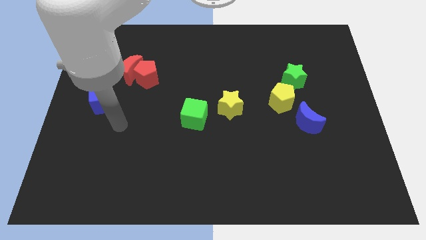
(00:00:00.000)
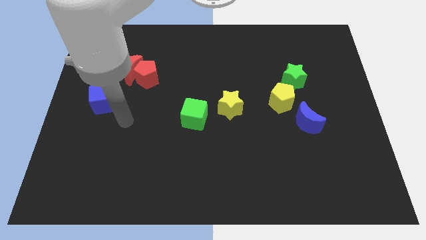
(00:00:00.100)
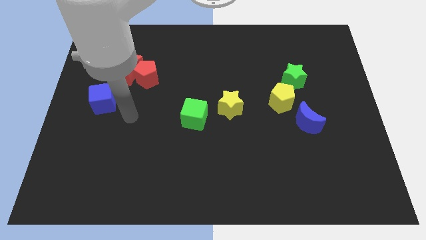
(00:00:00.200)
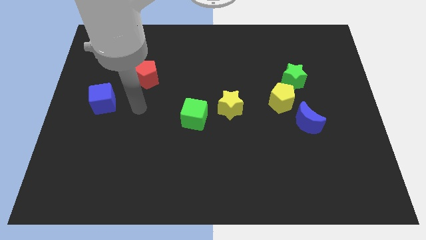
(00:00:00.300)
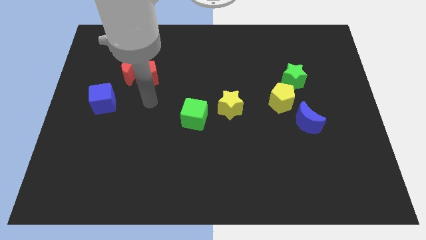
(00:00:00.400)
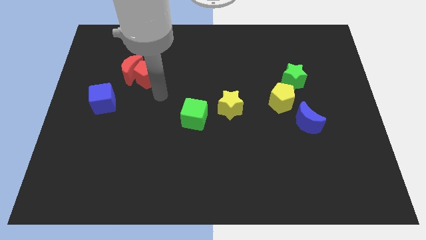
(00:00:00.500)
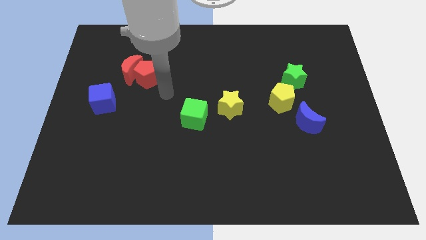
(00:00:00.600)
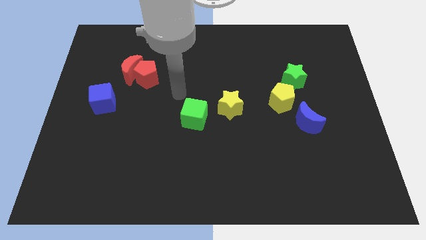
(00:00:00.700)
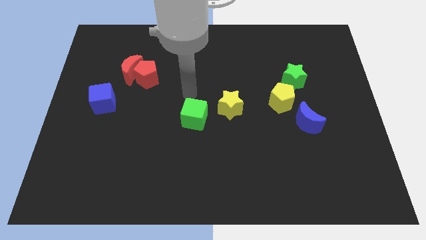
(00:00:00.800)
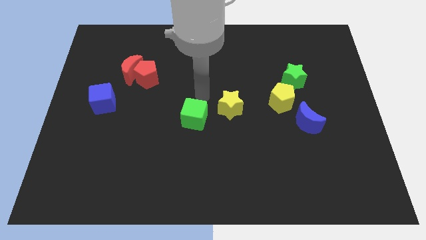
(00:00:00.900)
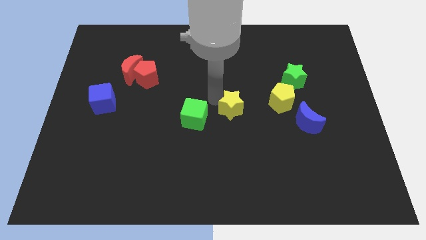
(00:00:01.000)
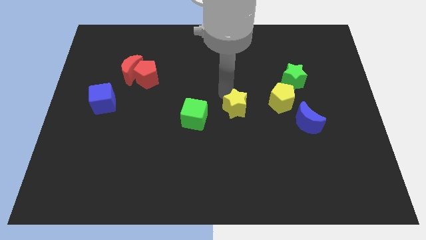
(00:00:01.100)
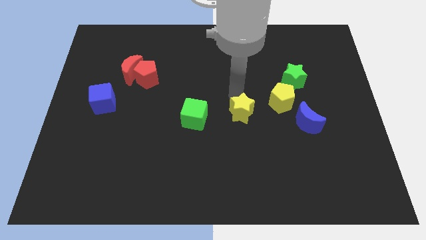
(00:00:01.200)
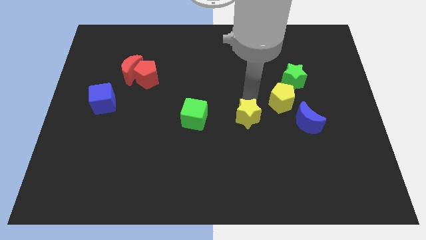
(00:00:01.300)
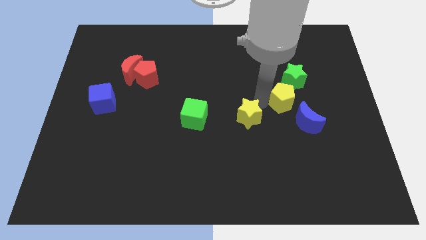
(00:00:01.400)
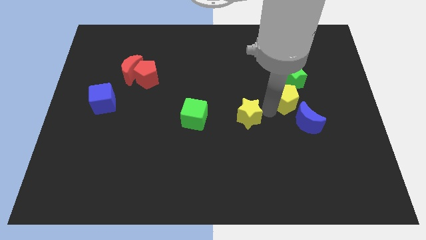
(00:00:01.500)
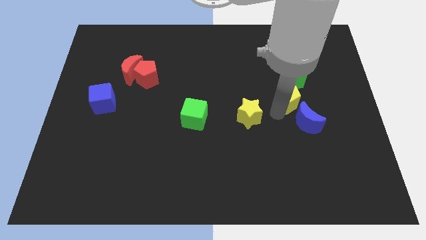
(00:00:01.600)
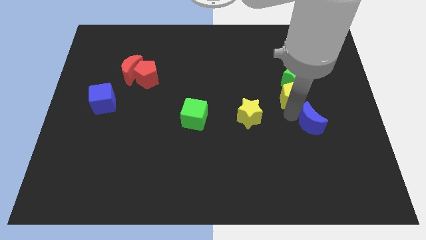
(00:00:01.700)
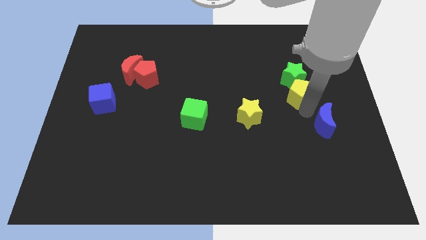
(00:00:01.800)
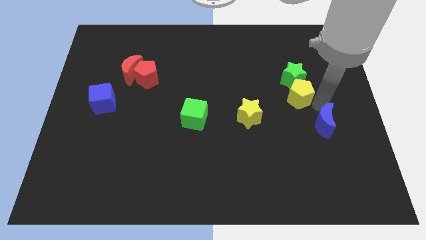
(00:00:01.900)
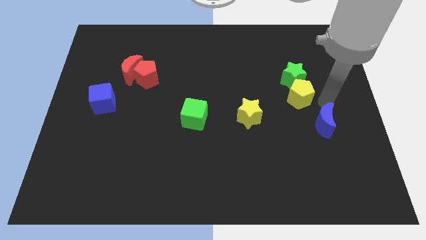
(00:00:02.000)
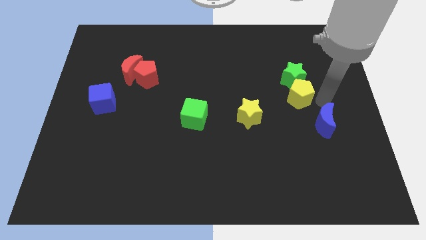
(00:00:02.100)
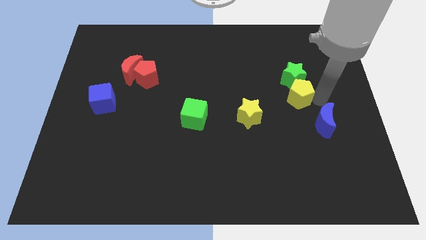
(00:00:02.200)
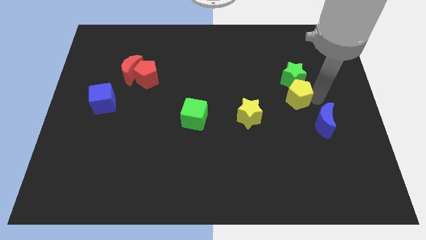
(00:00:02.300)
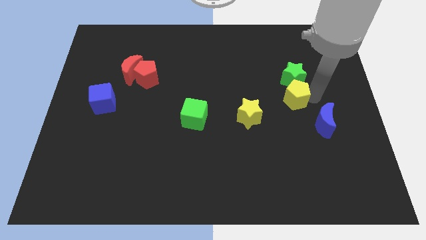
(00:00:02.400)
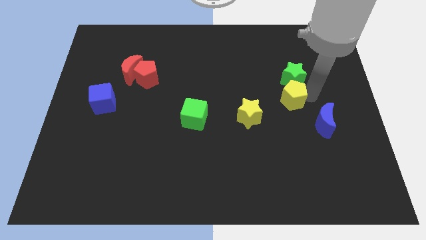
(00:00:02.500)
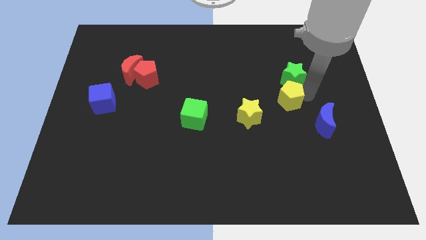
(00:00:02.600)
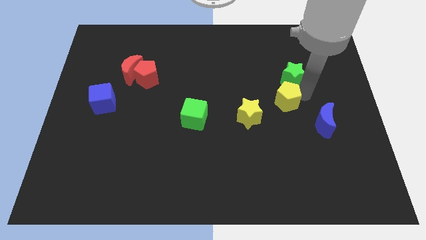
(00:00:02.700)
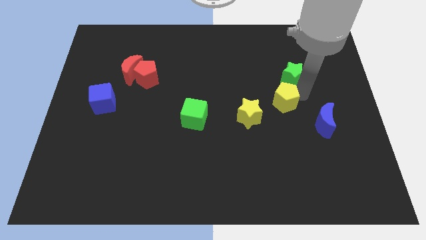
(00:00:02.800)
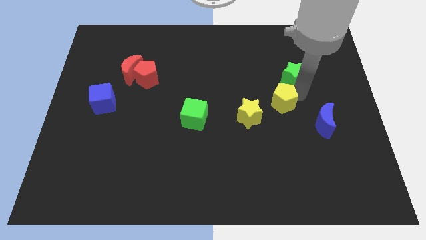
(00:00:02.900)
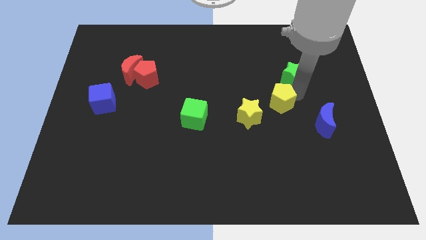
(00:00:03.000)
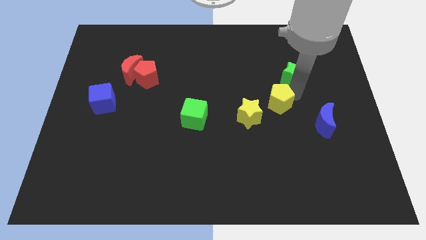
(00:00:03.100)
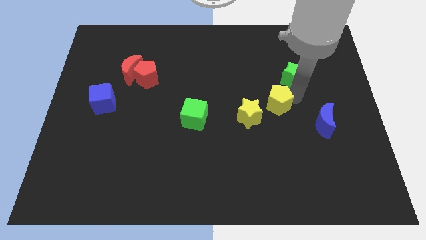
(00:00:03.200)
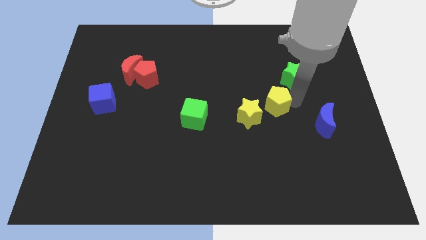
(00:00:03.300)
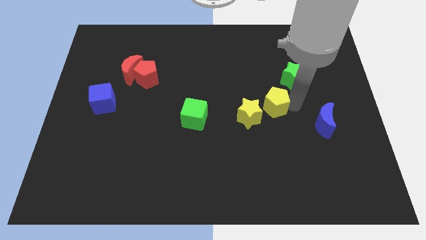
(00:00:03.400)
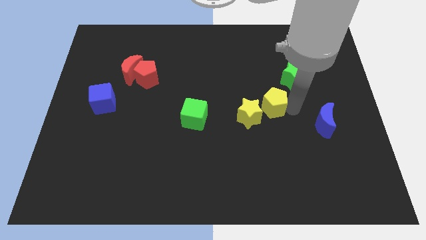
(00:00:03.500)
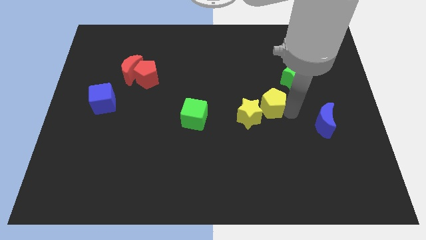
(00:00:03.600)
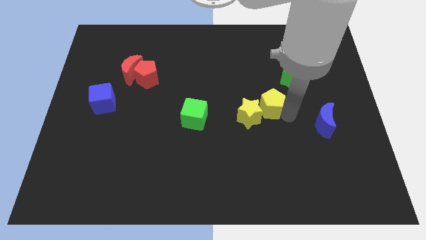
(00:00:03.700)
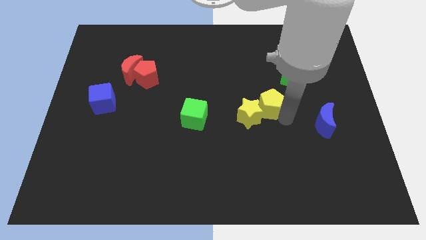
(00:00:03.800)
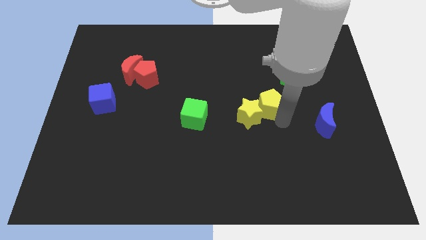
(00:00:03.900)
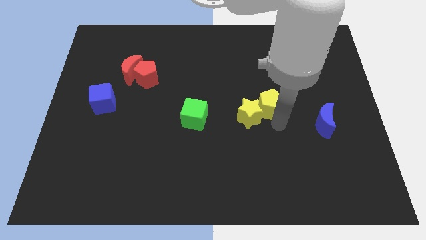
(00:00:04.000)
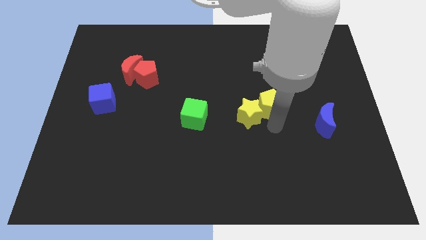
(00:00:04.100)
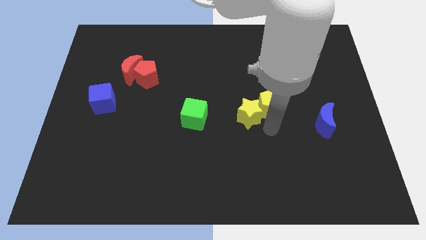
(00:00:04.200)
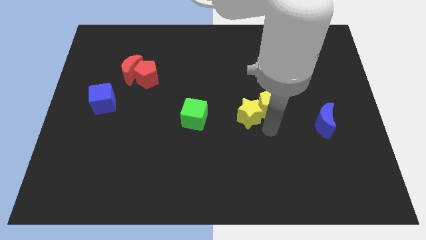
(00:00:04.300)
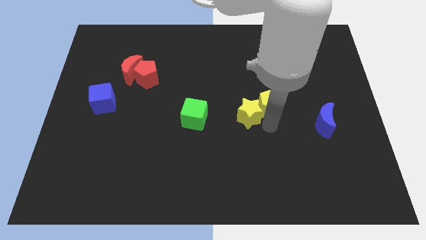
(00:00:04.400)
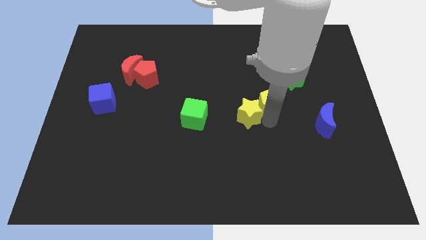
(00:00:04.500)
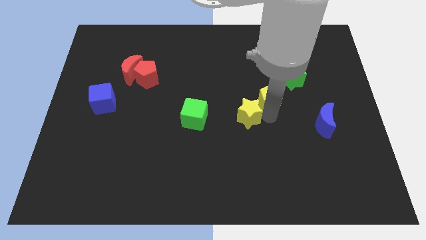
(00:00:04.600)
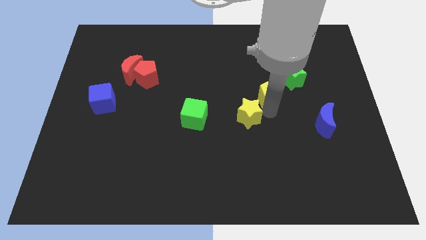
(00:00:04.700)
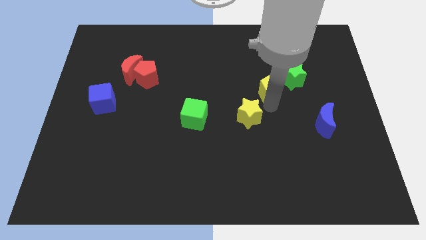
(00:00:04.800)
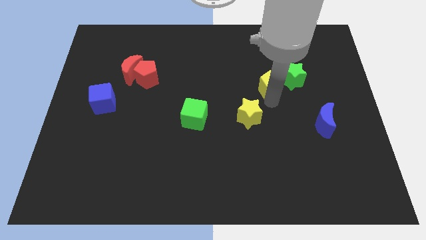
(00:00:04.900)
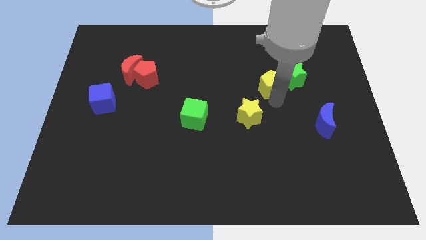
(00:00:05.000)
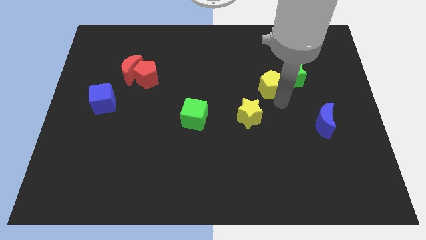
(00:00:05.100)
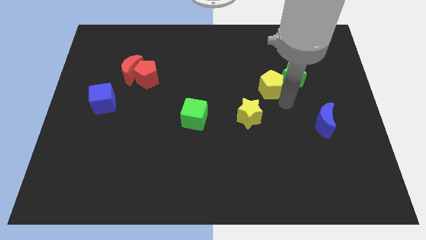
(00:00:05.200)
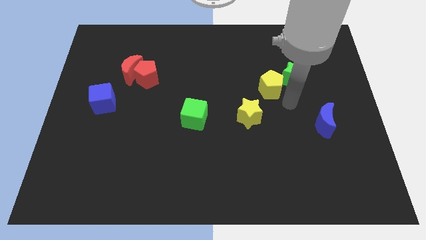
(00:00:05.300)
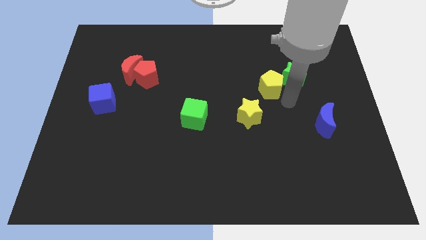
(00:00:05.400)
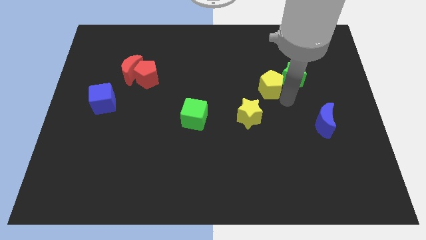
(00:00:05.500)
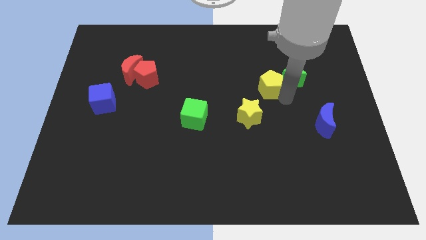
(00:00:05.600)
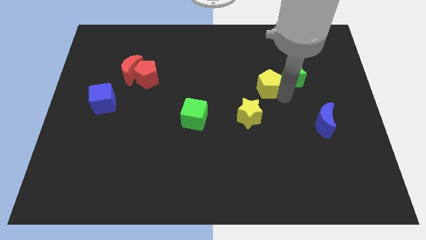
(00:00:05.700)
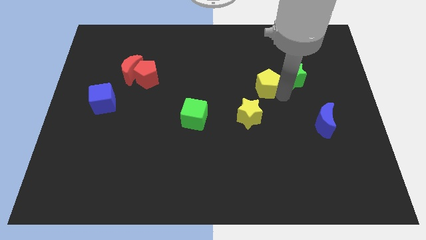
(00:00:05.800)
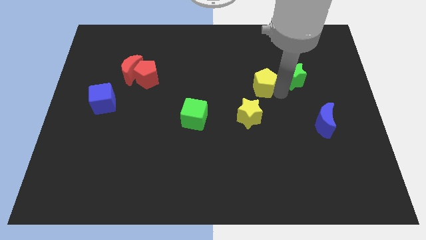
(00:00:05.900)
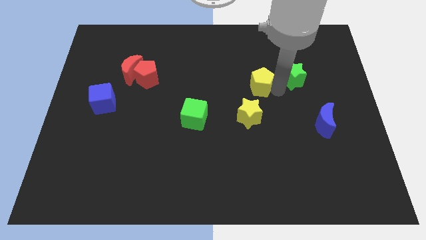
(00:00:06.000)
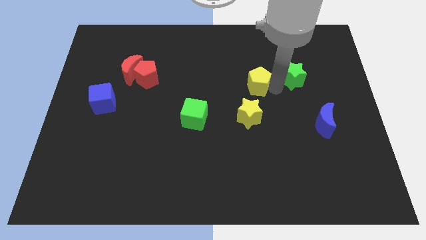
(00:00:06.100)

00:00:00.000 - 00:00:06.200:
move the yellow pentagon diagonally upwards and to the left slightly

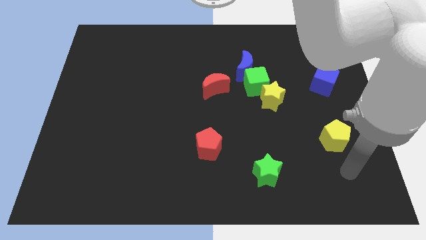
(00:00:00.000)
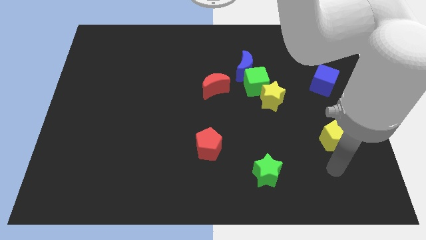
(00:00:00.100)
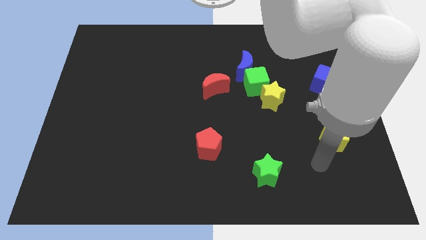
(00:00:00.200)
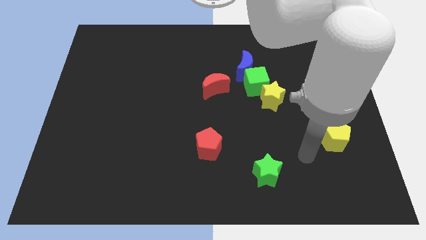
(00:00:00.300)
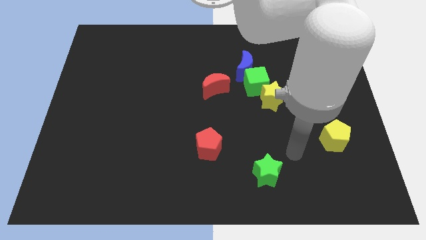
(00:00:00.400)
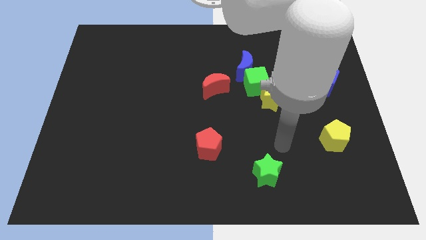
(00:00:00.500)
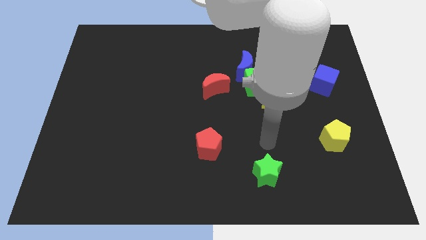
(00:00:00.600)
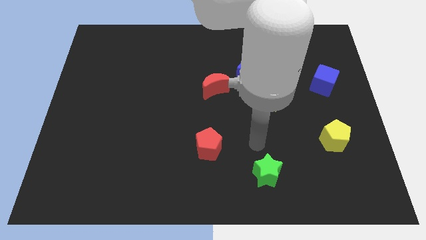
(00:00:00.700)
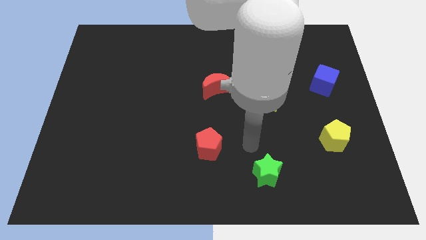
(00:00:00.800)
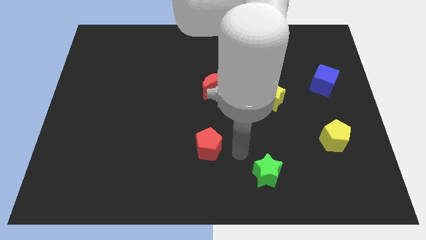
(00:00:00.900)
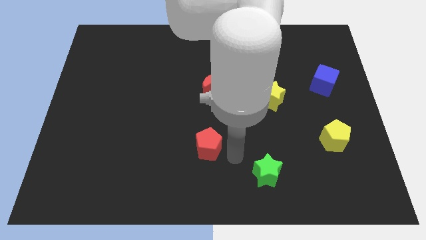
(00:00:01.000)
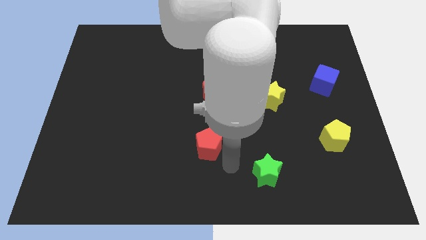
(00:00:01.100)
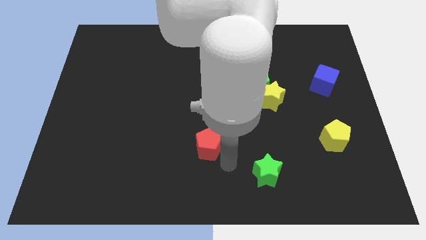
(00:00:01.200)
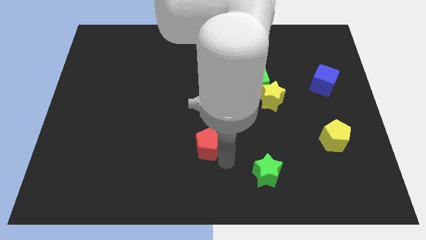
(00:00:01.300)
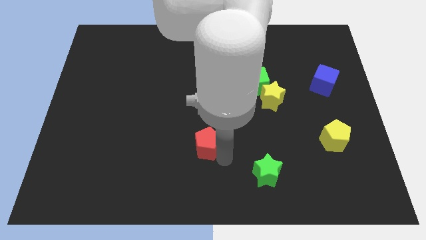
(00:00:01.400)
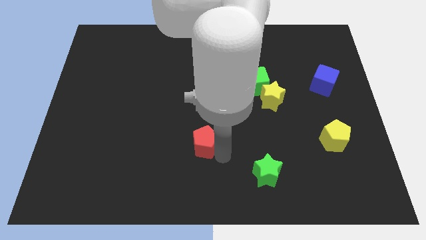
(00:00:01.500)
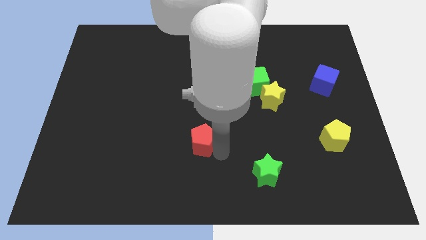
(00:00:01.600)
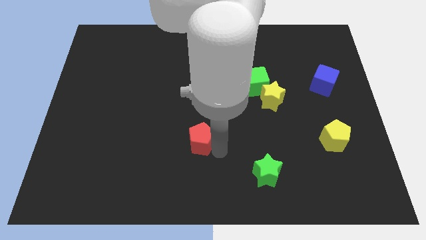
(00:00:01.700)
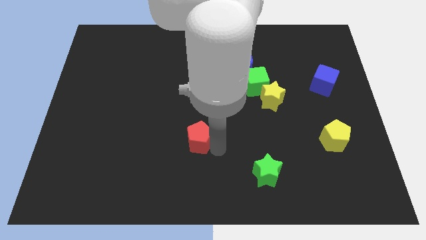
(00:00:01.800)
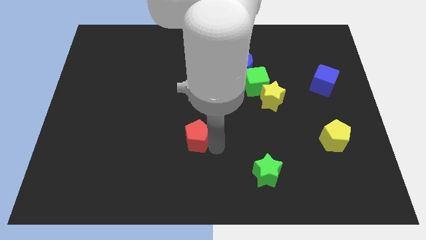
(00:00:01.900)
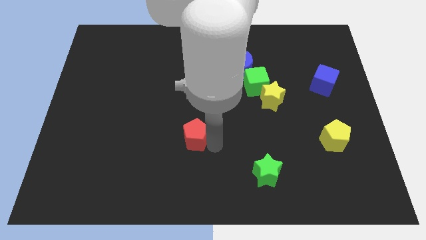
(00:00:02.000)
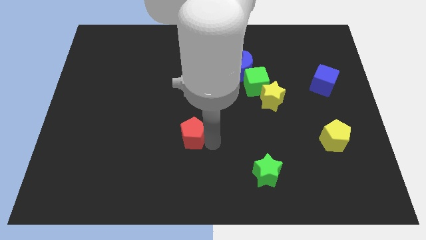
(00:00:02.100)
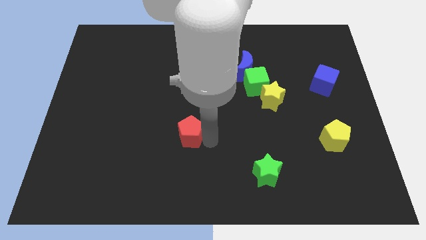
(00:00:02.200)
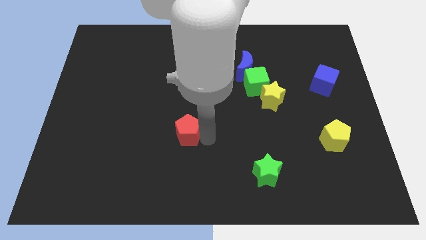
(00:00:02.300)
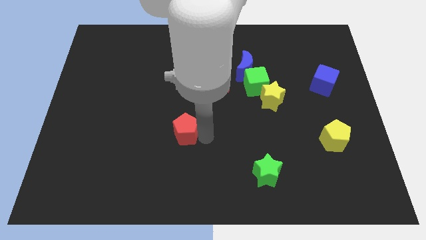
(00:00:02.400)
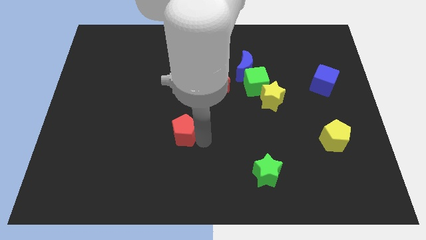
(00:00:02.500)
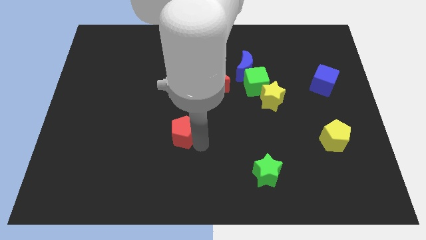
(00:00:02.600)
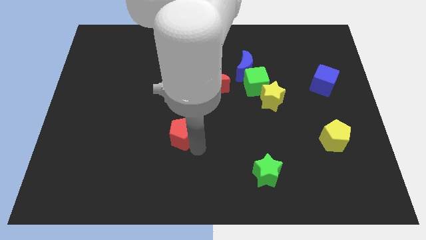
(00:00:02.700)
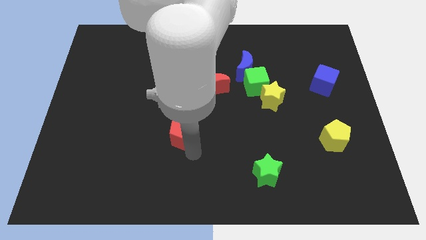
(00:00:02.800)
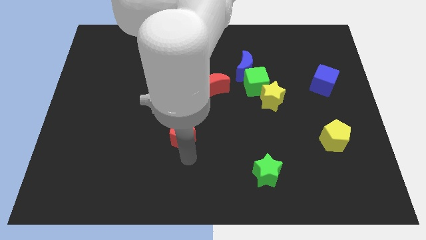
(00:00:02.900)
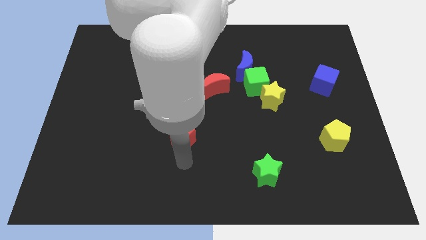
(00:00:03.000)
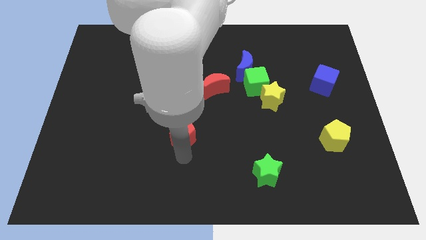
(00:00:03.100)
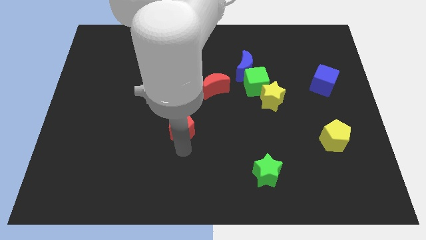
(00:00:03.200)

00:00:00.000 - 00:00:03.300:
slightly push the red pentagon up and left
